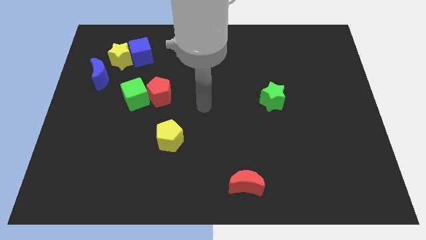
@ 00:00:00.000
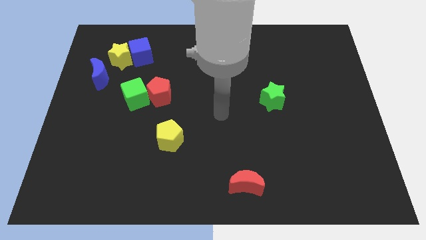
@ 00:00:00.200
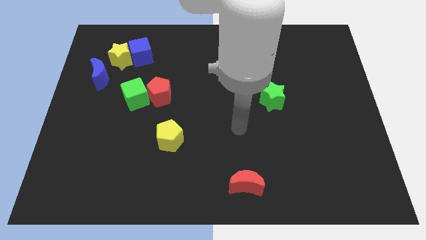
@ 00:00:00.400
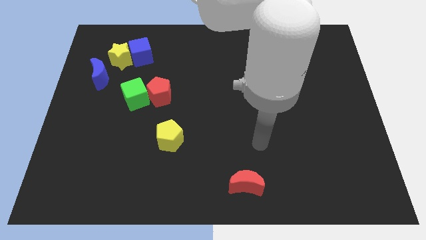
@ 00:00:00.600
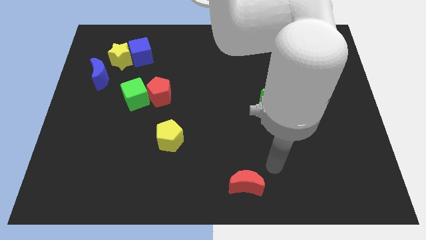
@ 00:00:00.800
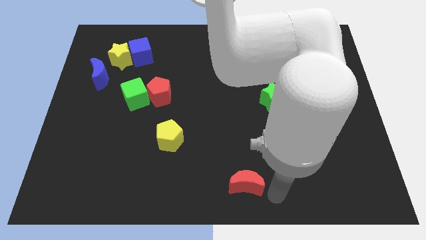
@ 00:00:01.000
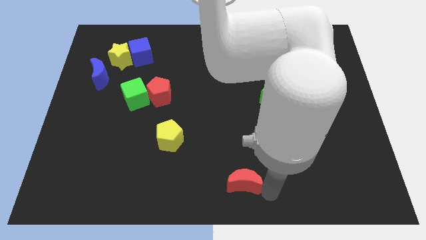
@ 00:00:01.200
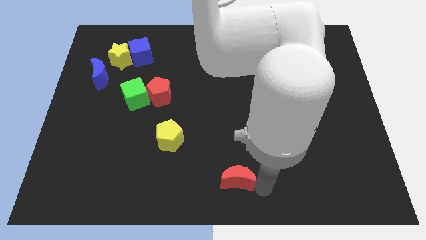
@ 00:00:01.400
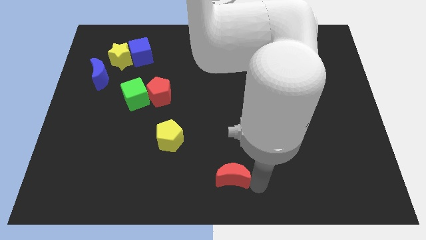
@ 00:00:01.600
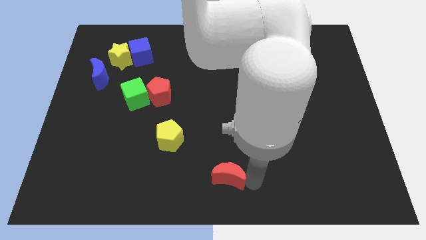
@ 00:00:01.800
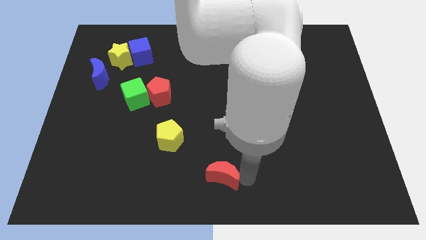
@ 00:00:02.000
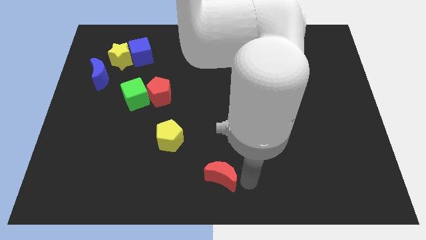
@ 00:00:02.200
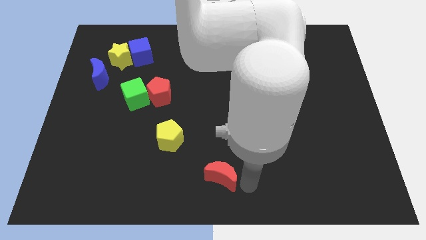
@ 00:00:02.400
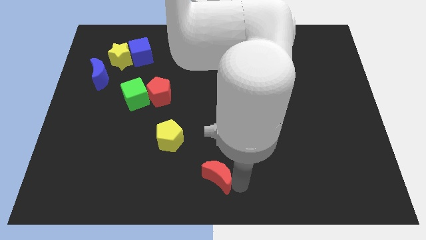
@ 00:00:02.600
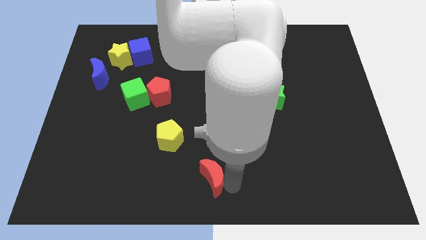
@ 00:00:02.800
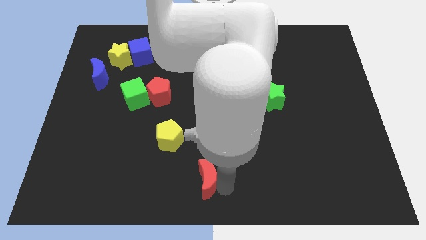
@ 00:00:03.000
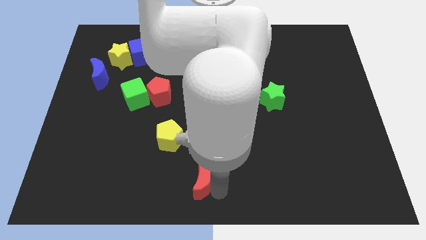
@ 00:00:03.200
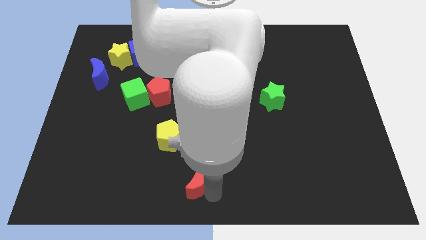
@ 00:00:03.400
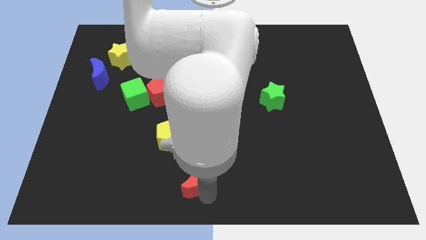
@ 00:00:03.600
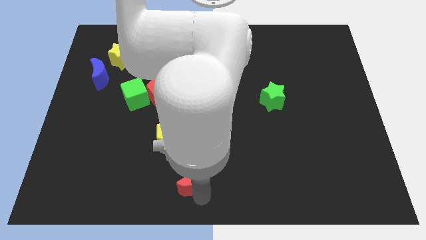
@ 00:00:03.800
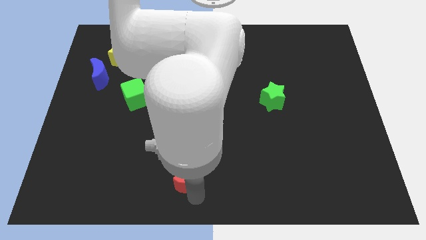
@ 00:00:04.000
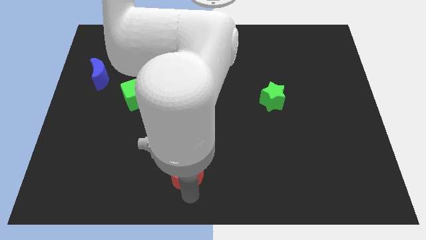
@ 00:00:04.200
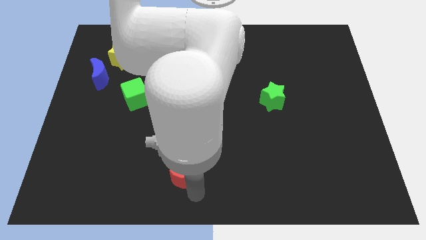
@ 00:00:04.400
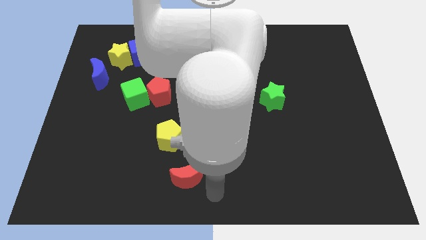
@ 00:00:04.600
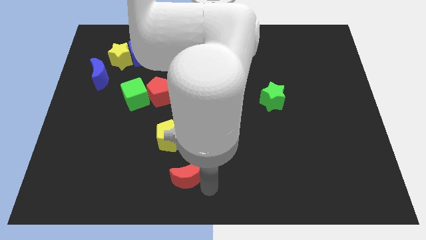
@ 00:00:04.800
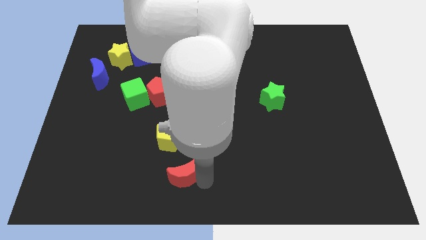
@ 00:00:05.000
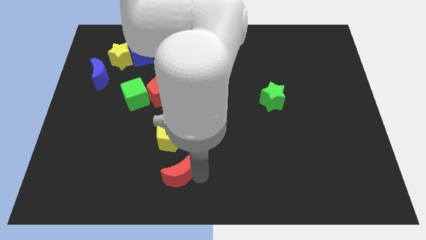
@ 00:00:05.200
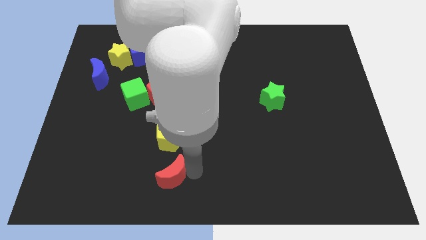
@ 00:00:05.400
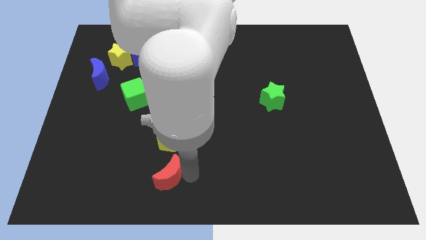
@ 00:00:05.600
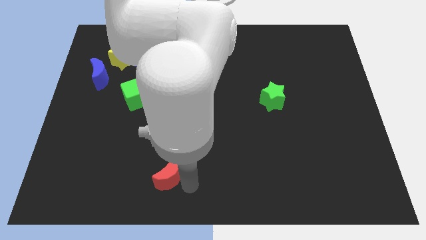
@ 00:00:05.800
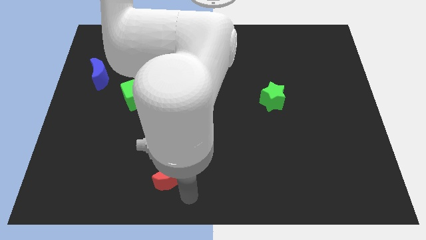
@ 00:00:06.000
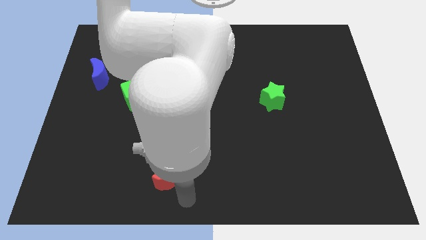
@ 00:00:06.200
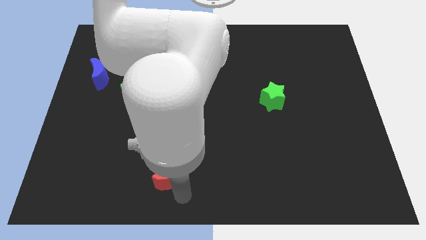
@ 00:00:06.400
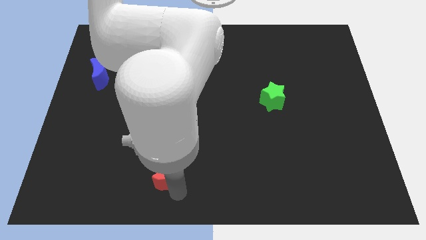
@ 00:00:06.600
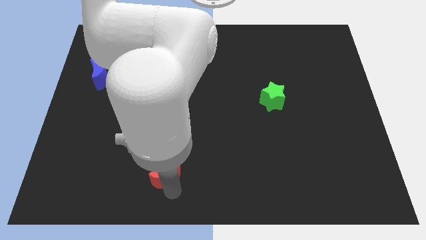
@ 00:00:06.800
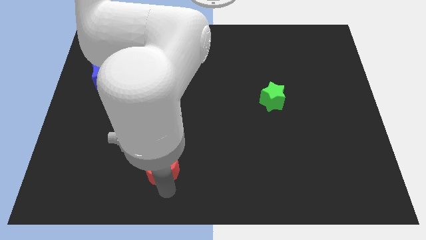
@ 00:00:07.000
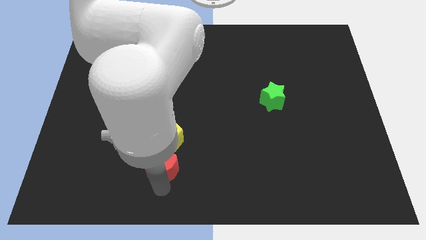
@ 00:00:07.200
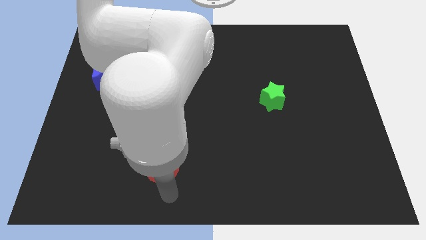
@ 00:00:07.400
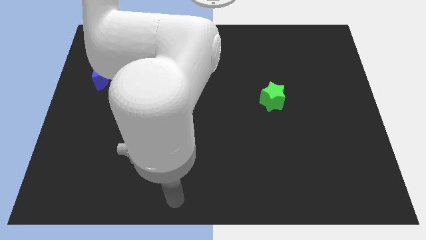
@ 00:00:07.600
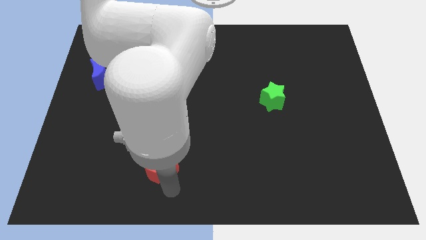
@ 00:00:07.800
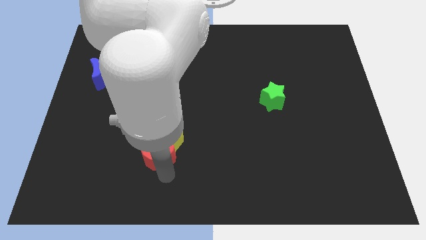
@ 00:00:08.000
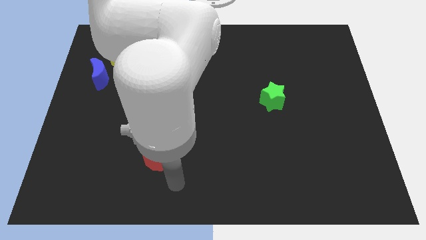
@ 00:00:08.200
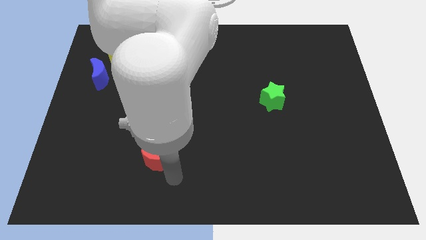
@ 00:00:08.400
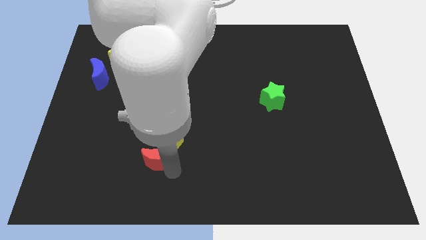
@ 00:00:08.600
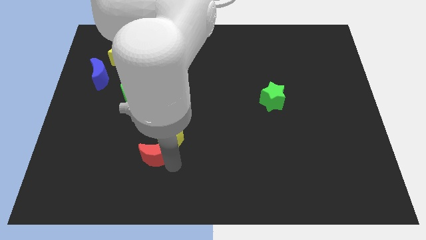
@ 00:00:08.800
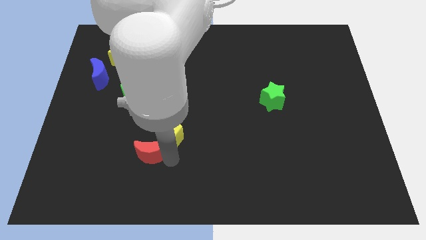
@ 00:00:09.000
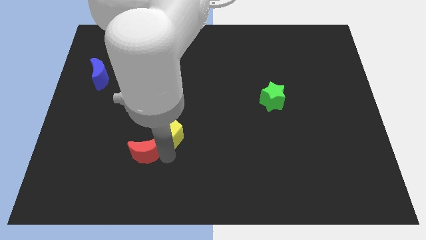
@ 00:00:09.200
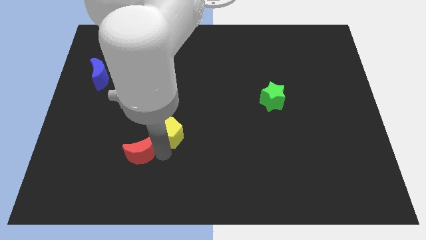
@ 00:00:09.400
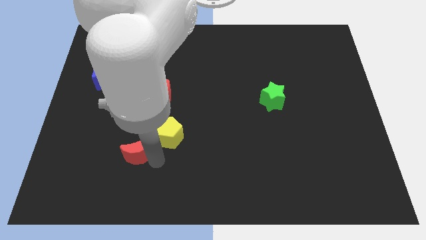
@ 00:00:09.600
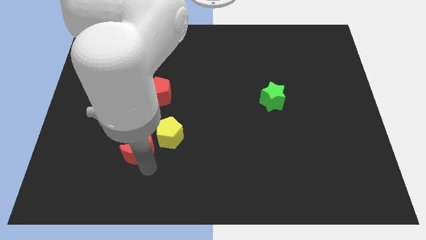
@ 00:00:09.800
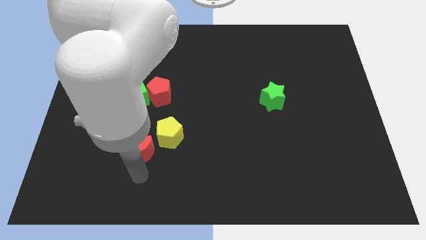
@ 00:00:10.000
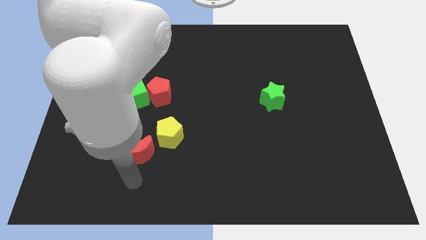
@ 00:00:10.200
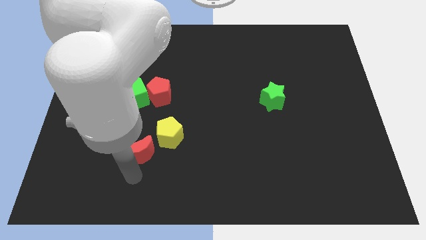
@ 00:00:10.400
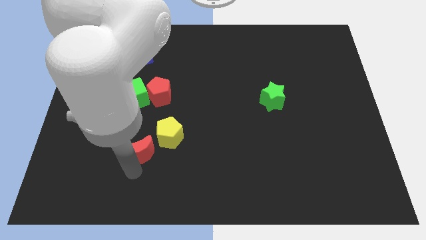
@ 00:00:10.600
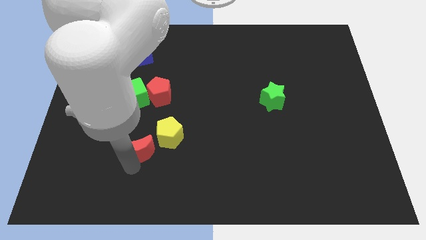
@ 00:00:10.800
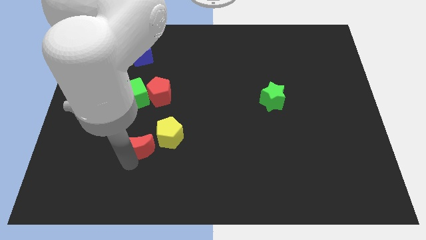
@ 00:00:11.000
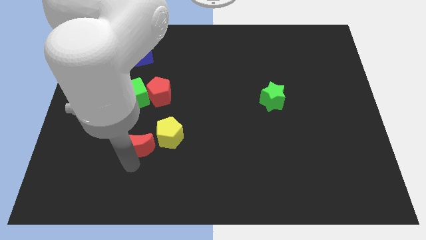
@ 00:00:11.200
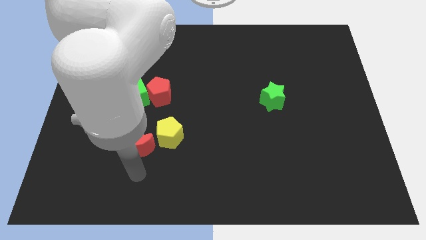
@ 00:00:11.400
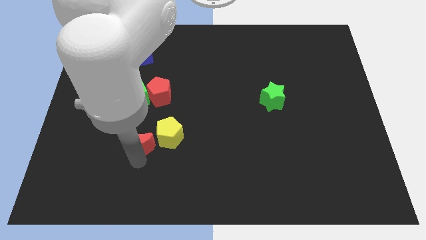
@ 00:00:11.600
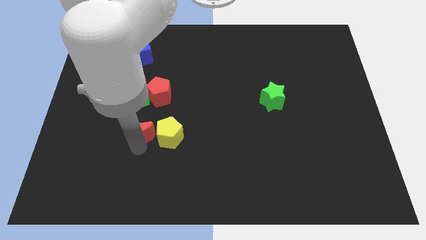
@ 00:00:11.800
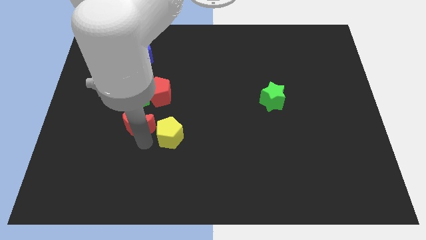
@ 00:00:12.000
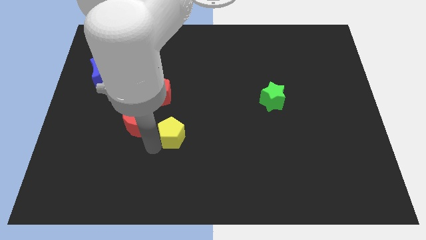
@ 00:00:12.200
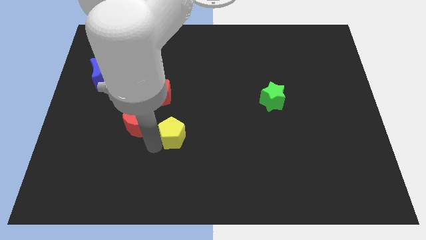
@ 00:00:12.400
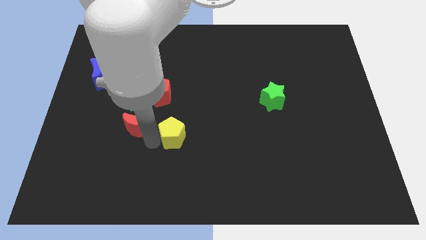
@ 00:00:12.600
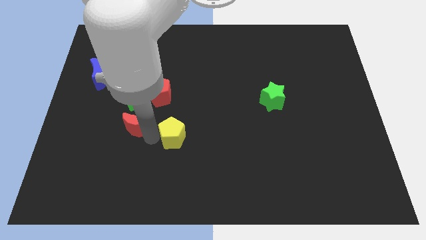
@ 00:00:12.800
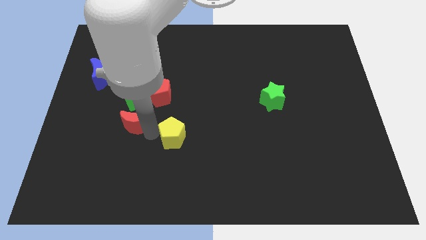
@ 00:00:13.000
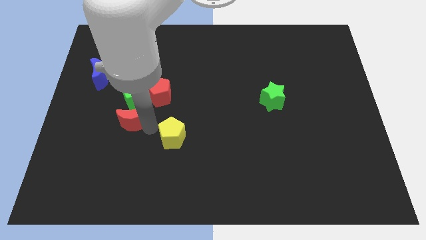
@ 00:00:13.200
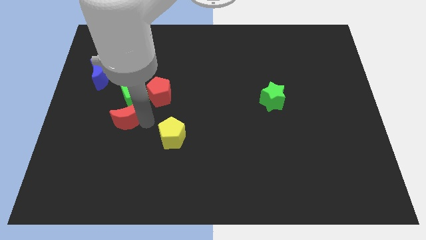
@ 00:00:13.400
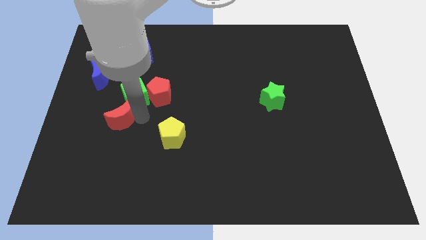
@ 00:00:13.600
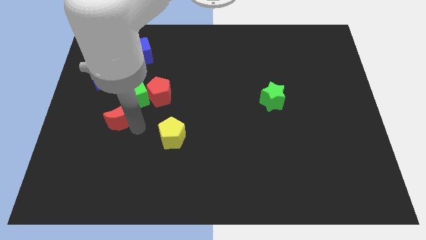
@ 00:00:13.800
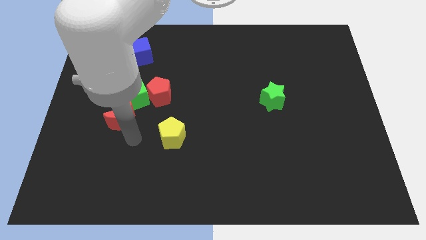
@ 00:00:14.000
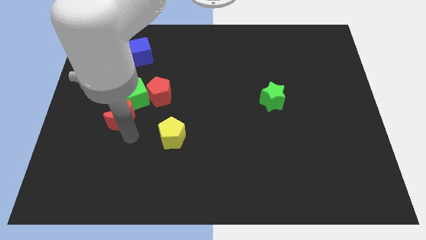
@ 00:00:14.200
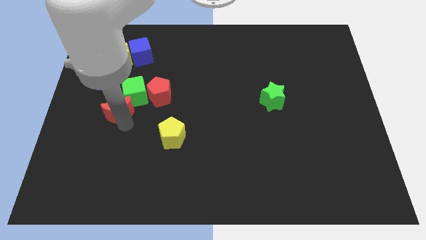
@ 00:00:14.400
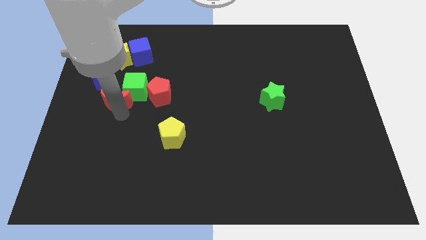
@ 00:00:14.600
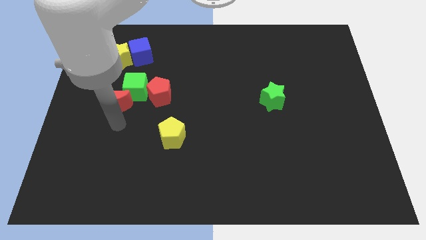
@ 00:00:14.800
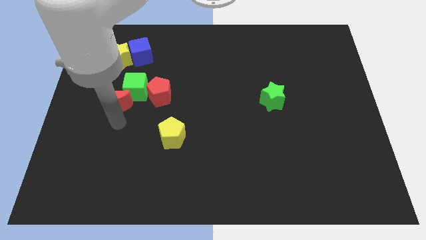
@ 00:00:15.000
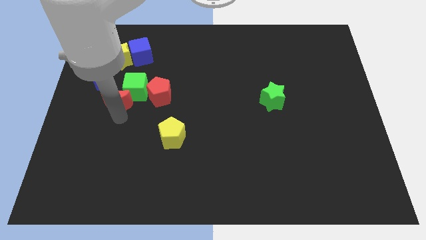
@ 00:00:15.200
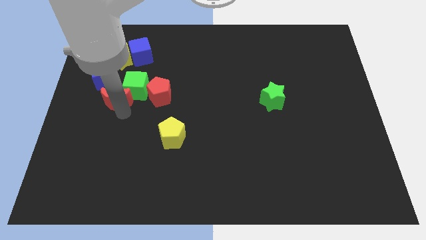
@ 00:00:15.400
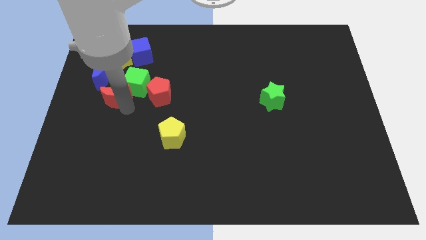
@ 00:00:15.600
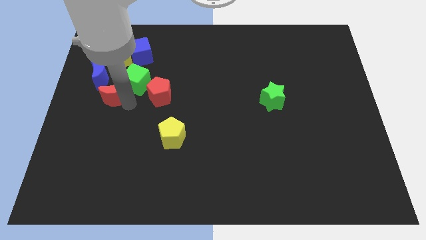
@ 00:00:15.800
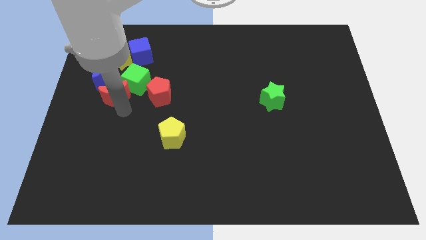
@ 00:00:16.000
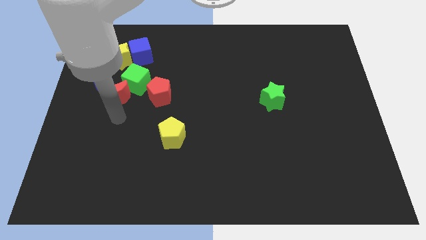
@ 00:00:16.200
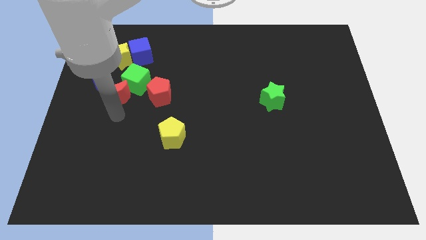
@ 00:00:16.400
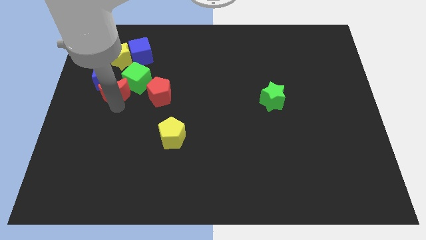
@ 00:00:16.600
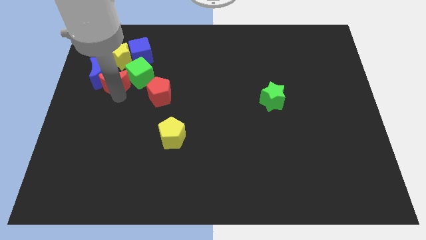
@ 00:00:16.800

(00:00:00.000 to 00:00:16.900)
slide the red moon towards the blue moon
